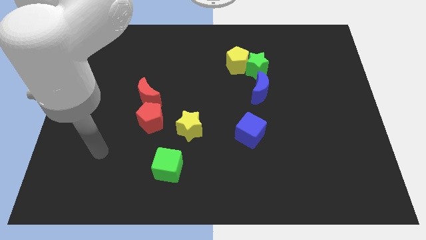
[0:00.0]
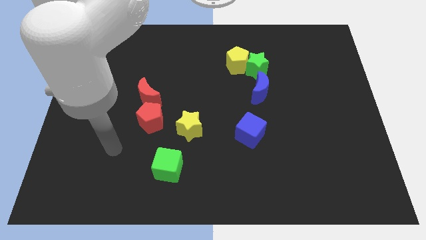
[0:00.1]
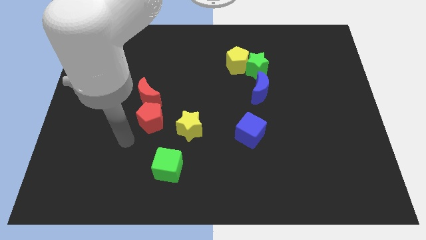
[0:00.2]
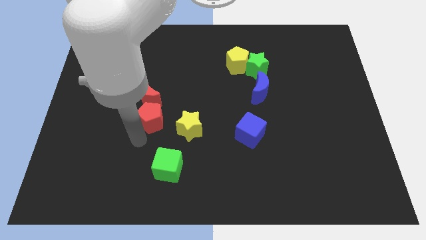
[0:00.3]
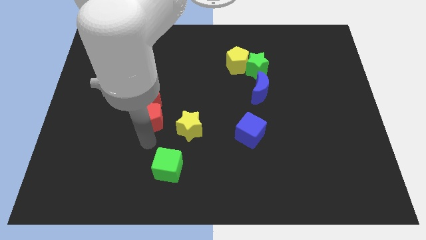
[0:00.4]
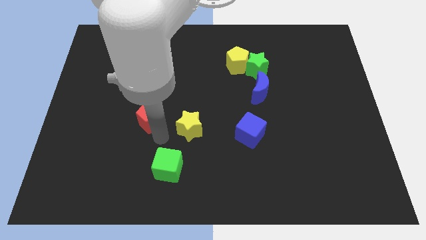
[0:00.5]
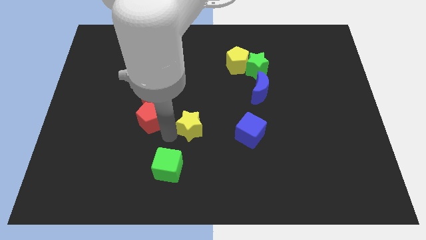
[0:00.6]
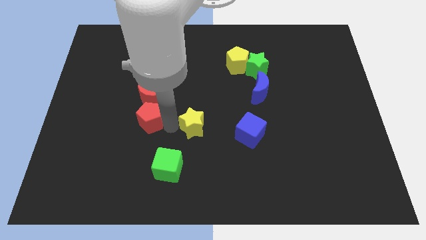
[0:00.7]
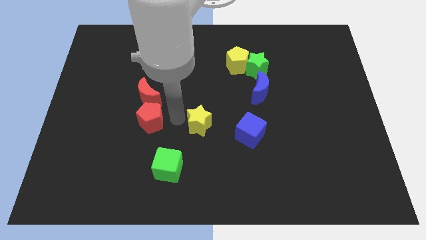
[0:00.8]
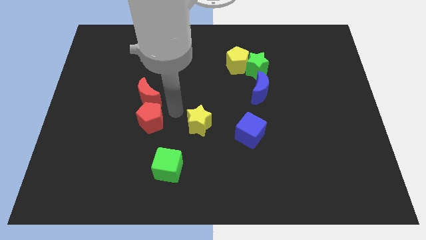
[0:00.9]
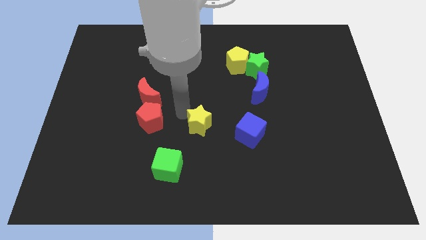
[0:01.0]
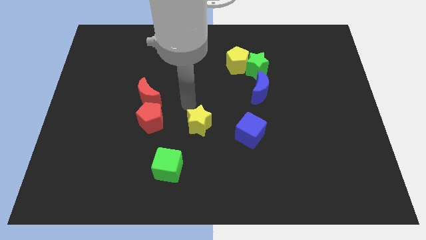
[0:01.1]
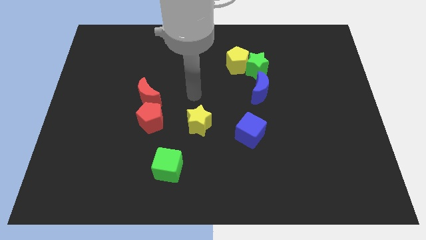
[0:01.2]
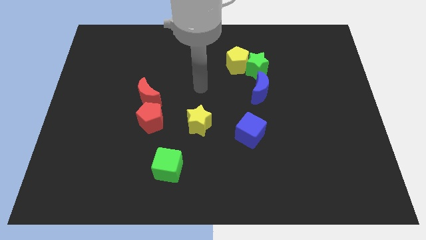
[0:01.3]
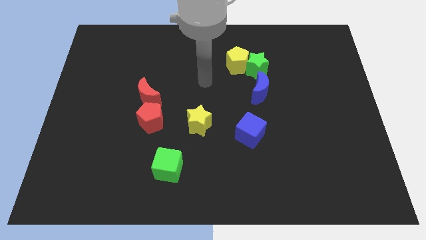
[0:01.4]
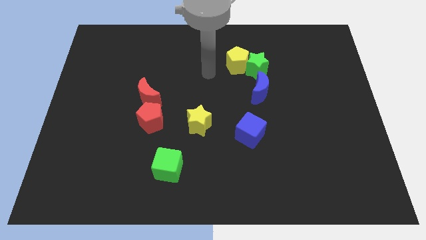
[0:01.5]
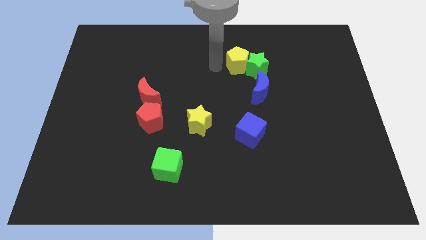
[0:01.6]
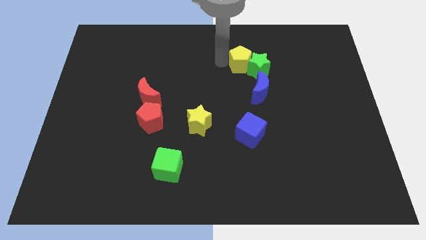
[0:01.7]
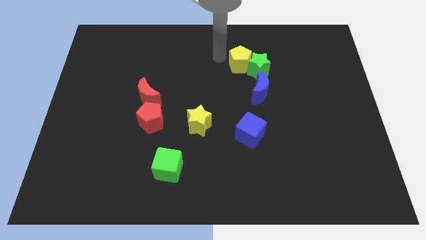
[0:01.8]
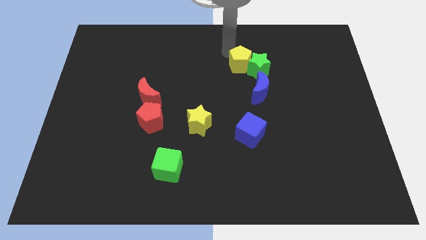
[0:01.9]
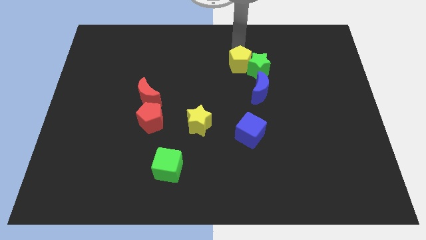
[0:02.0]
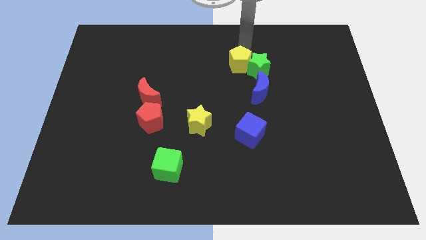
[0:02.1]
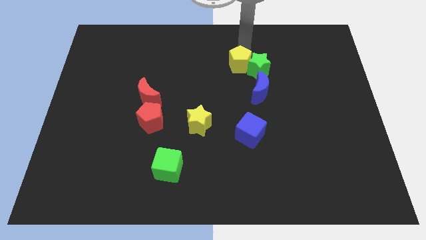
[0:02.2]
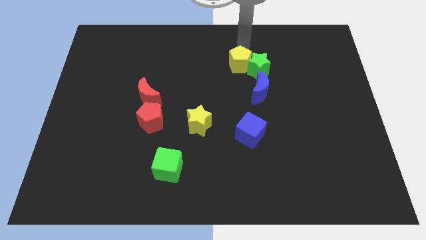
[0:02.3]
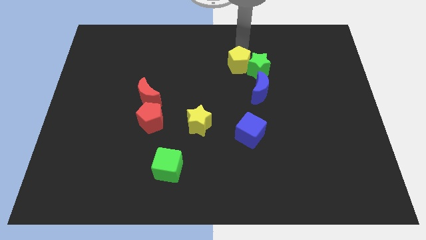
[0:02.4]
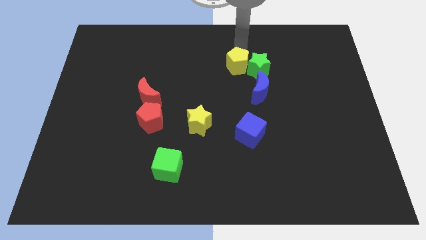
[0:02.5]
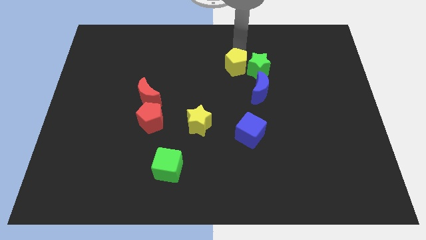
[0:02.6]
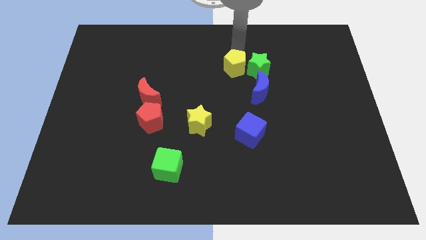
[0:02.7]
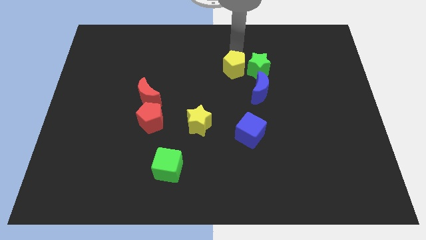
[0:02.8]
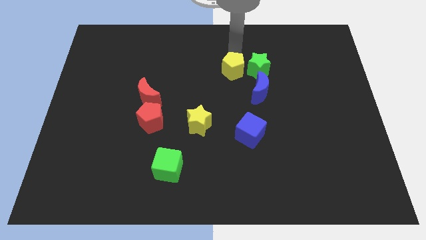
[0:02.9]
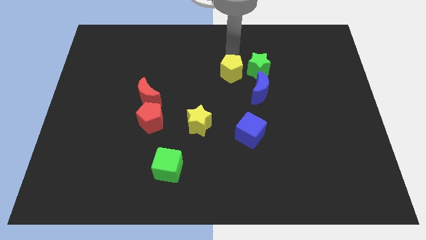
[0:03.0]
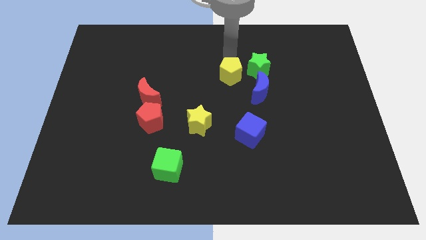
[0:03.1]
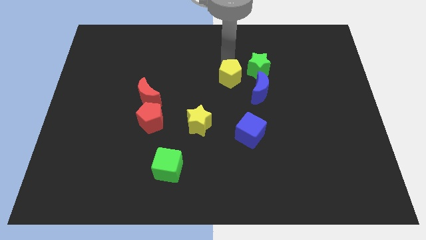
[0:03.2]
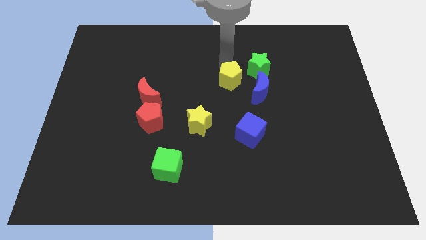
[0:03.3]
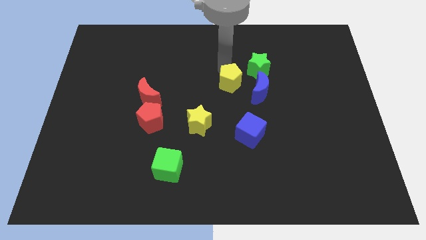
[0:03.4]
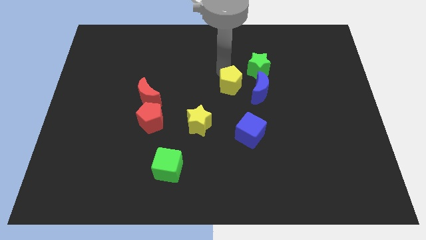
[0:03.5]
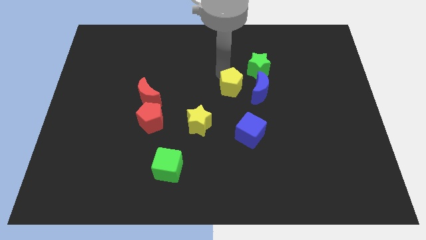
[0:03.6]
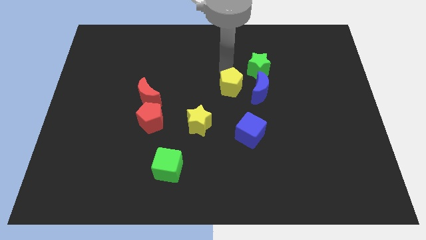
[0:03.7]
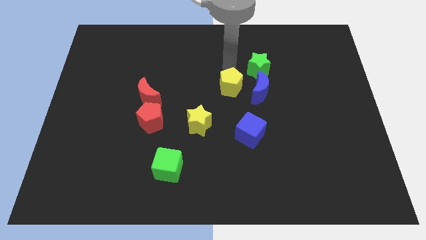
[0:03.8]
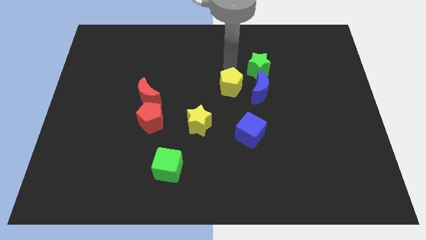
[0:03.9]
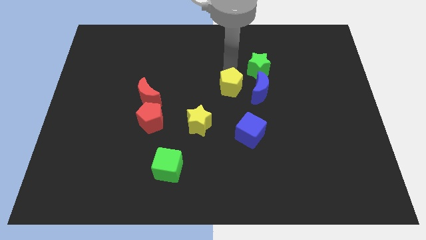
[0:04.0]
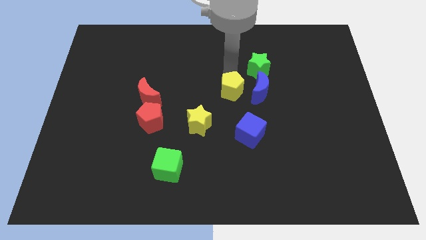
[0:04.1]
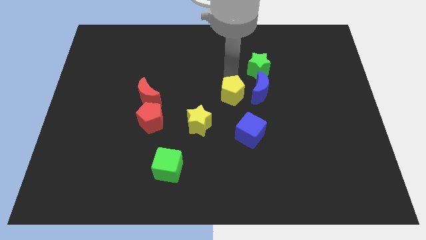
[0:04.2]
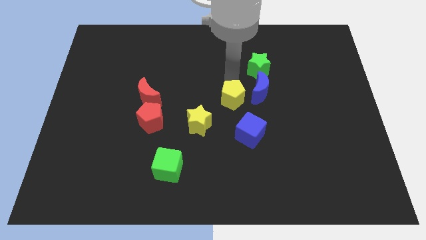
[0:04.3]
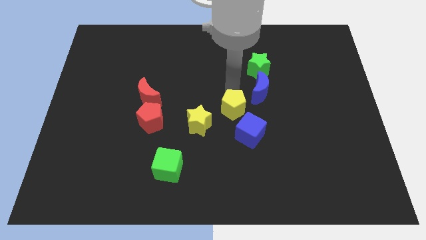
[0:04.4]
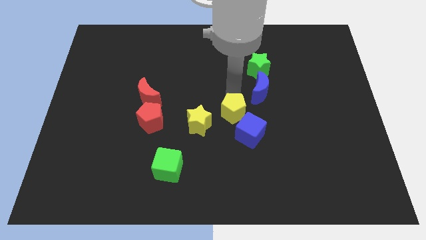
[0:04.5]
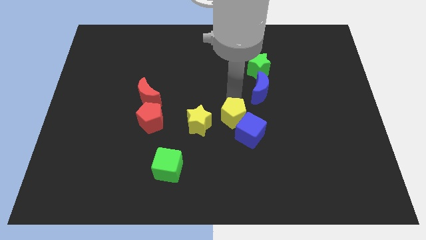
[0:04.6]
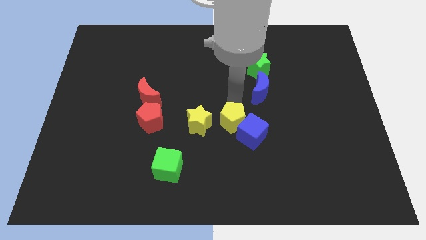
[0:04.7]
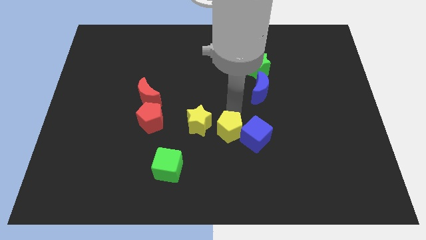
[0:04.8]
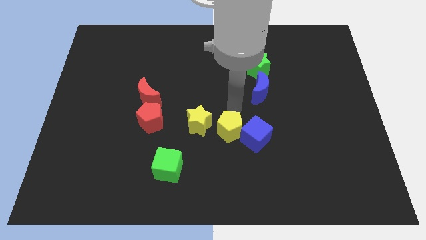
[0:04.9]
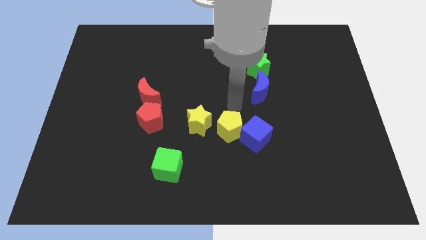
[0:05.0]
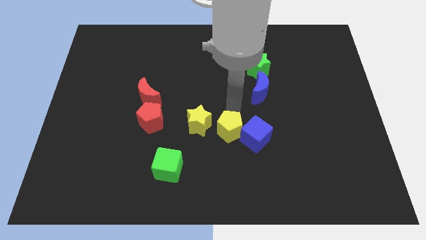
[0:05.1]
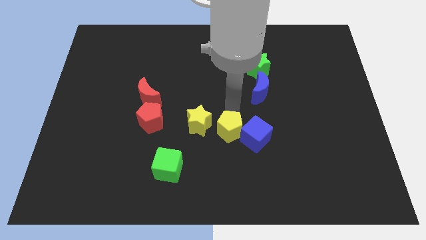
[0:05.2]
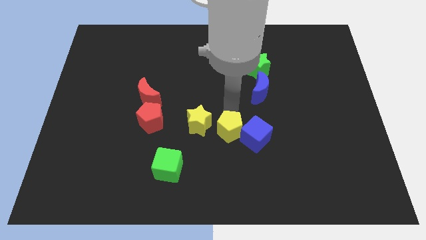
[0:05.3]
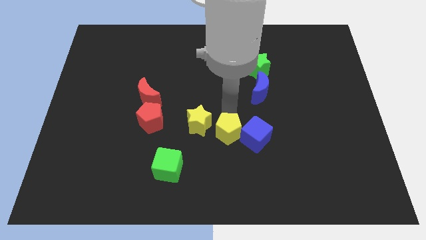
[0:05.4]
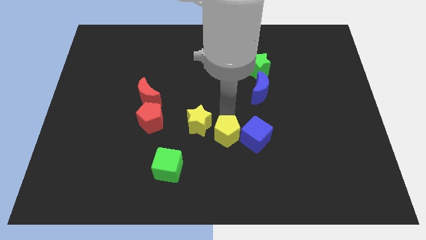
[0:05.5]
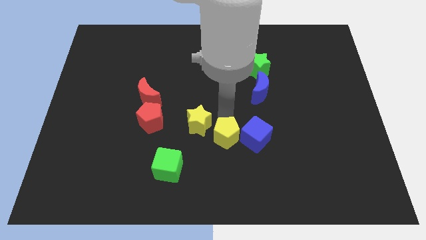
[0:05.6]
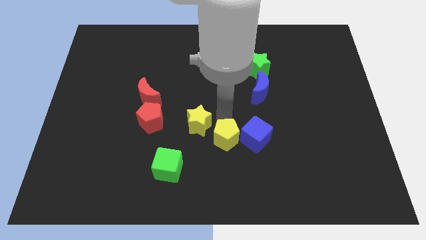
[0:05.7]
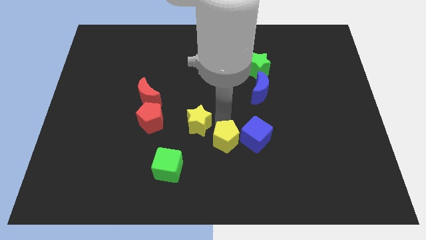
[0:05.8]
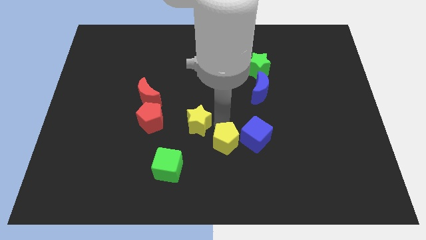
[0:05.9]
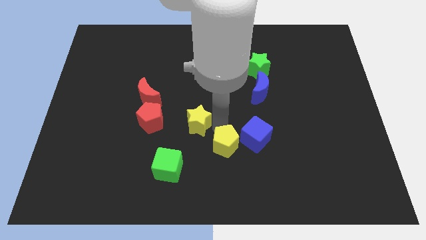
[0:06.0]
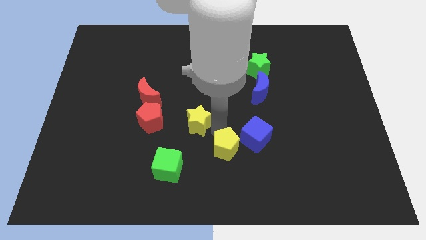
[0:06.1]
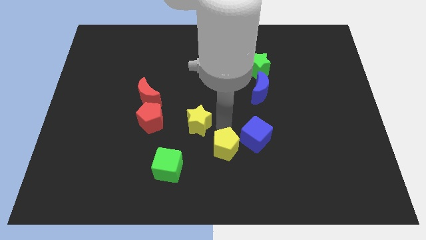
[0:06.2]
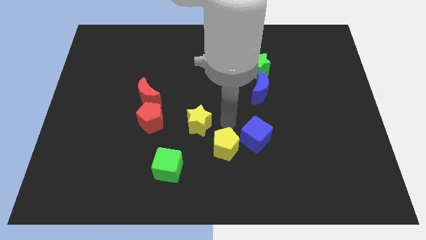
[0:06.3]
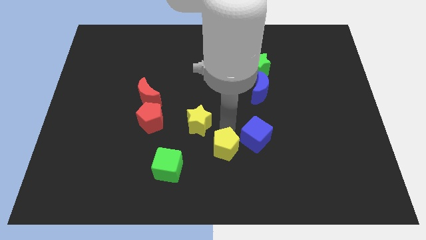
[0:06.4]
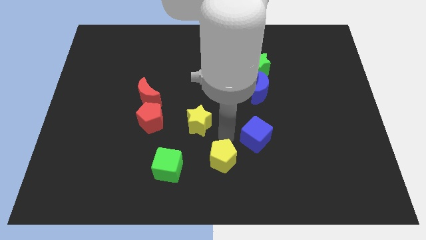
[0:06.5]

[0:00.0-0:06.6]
push the yellow pentagon to the bottom side

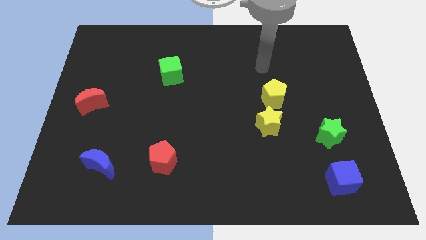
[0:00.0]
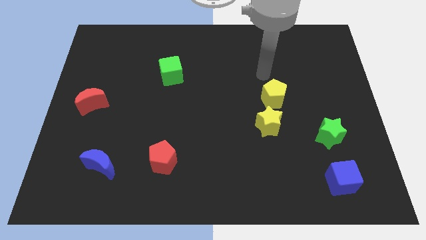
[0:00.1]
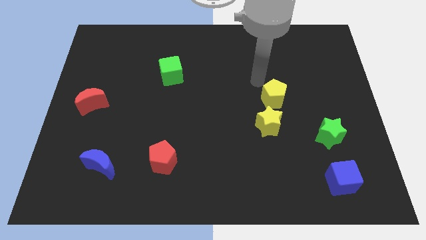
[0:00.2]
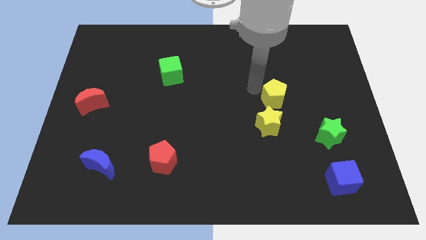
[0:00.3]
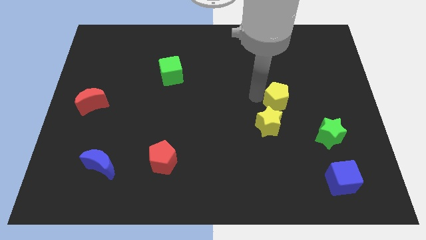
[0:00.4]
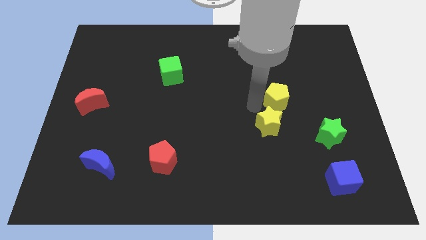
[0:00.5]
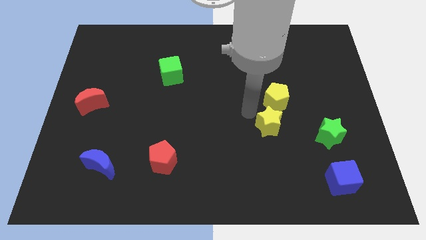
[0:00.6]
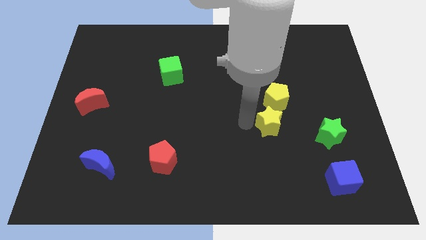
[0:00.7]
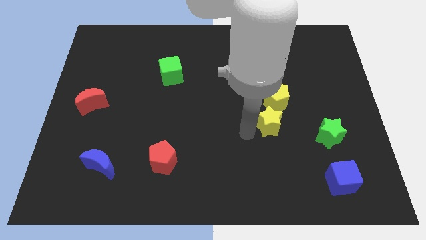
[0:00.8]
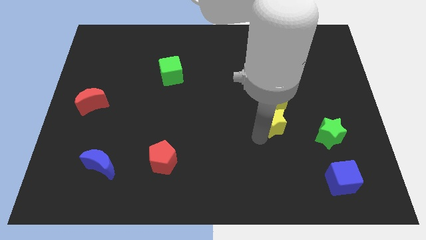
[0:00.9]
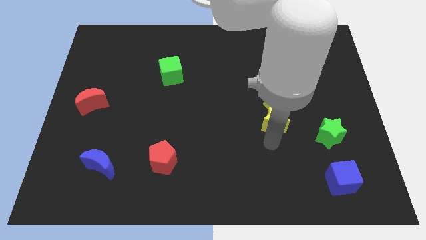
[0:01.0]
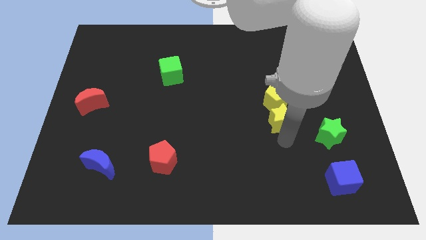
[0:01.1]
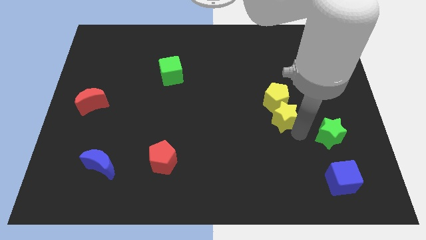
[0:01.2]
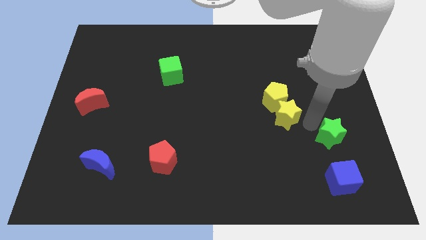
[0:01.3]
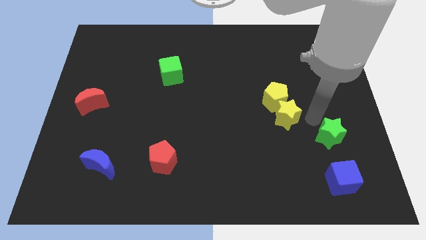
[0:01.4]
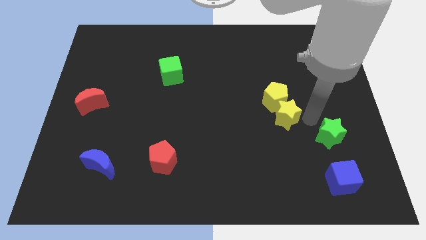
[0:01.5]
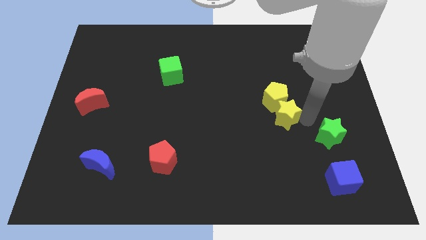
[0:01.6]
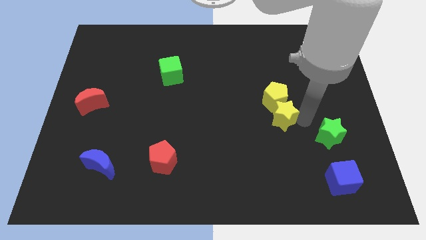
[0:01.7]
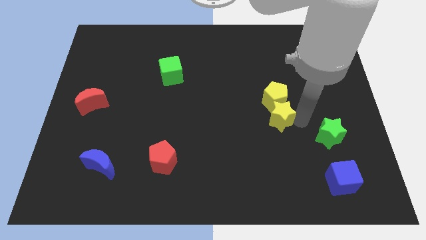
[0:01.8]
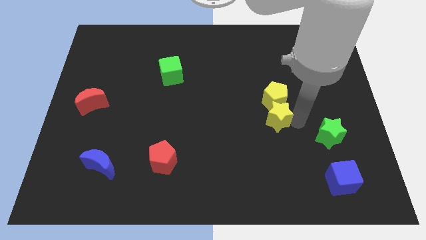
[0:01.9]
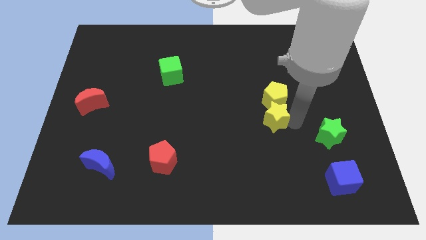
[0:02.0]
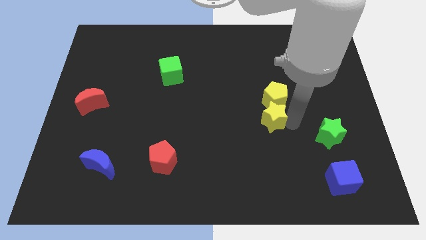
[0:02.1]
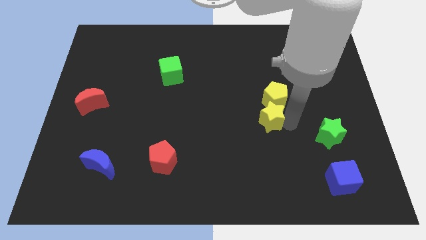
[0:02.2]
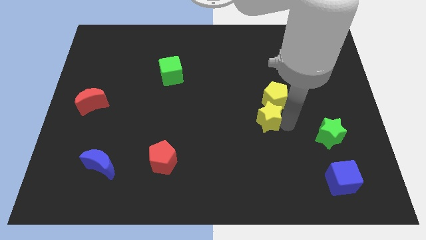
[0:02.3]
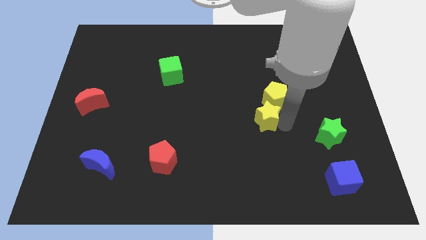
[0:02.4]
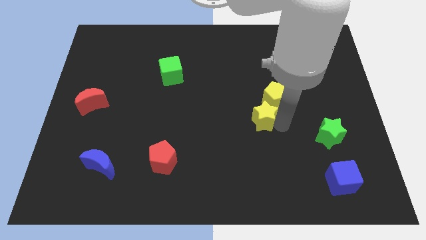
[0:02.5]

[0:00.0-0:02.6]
slide the yellow star to the center of the board
